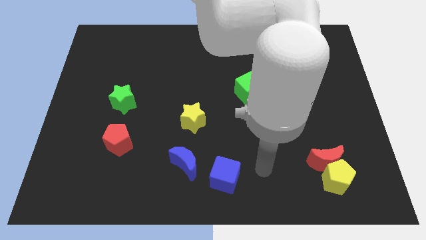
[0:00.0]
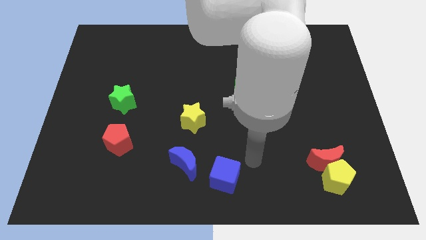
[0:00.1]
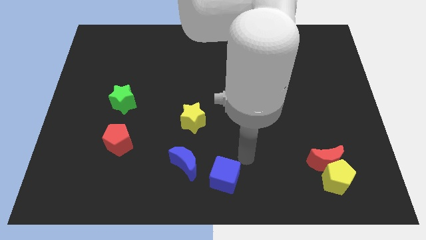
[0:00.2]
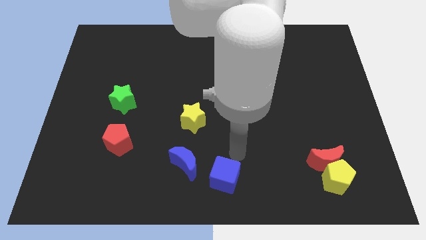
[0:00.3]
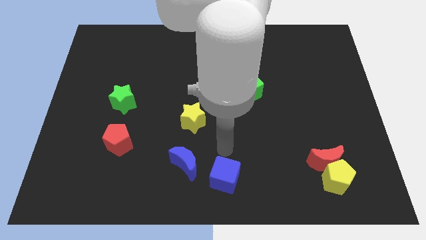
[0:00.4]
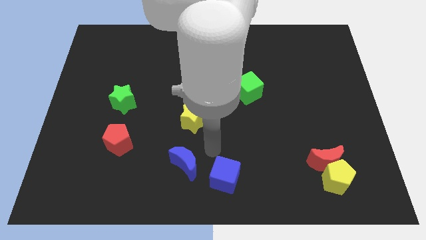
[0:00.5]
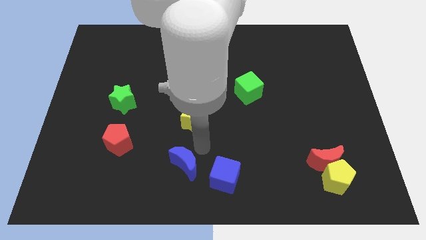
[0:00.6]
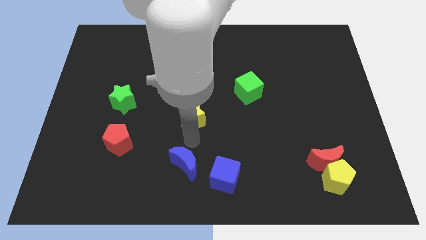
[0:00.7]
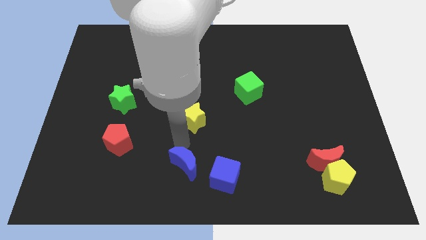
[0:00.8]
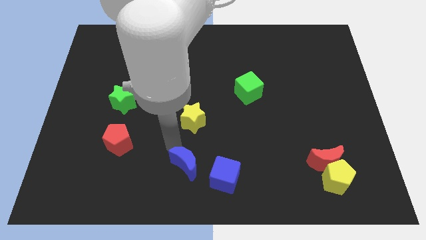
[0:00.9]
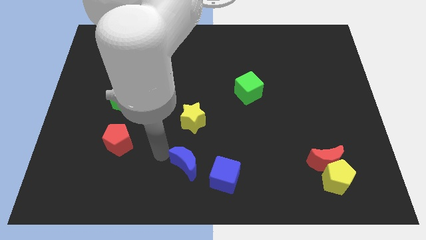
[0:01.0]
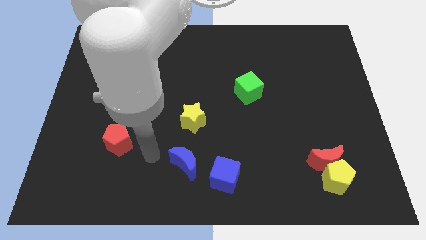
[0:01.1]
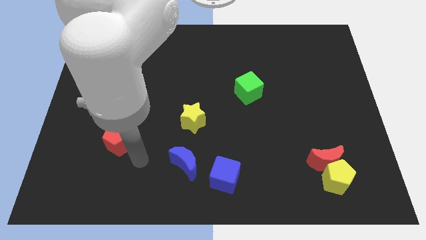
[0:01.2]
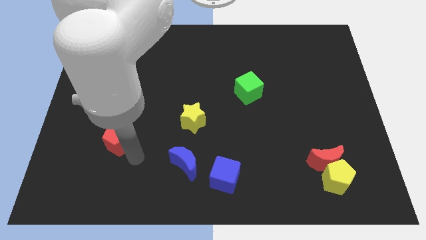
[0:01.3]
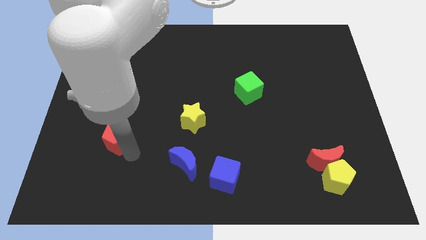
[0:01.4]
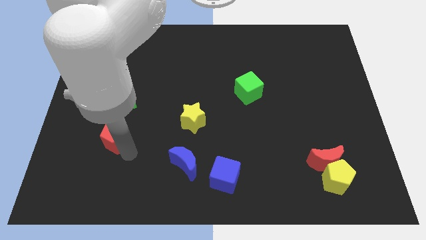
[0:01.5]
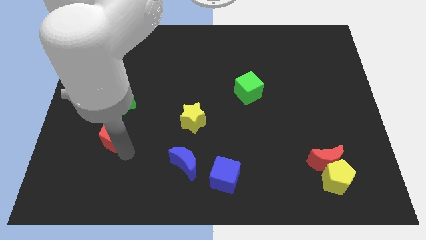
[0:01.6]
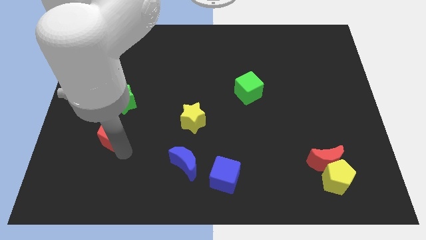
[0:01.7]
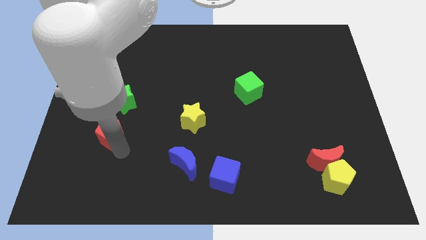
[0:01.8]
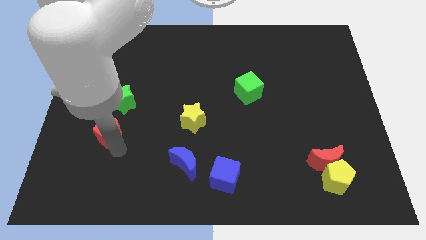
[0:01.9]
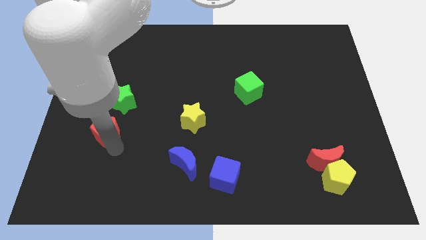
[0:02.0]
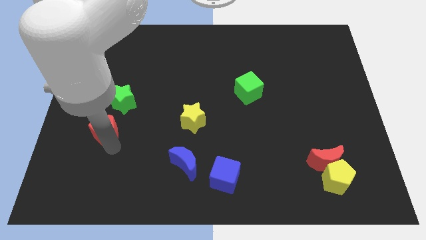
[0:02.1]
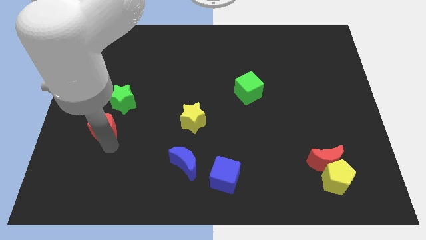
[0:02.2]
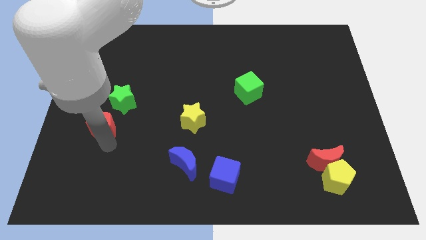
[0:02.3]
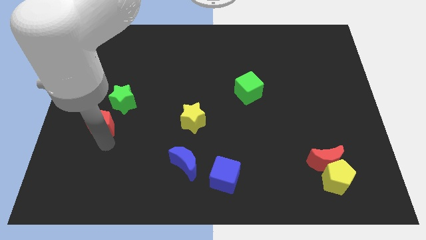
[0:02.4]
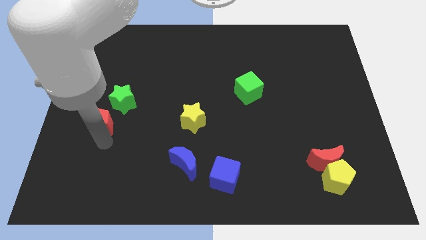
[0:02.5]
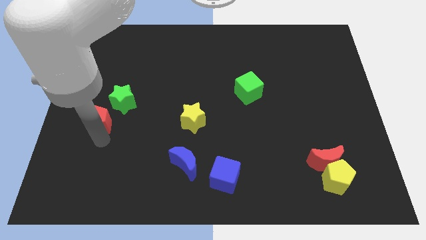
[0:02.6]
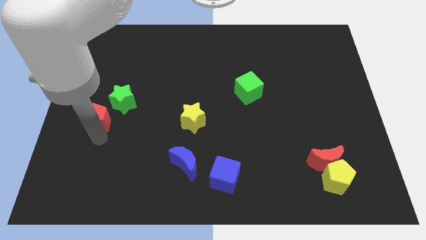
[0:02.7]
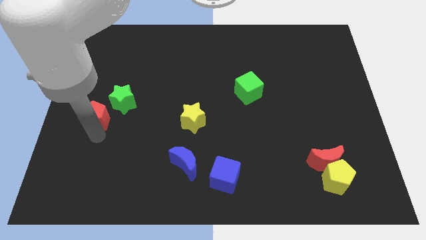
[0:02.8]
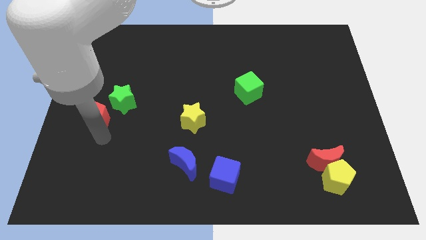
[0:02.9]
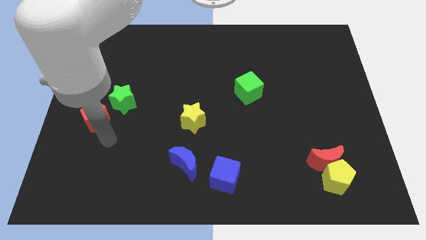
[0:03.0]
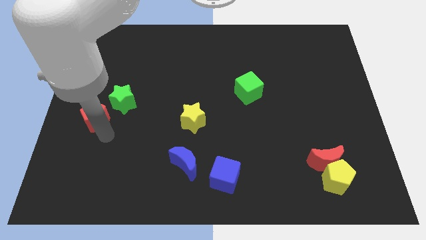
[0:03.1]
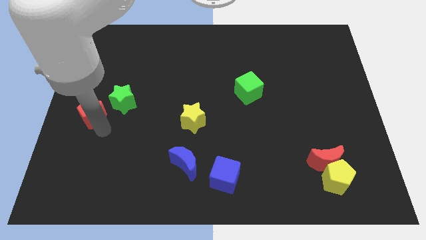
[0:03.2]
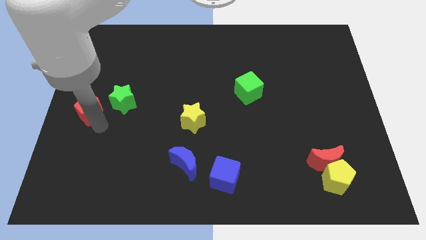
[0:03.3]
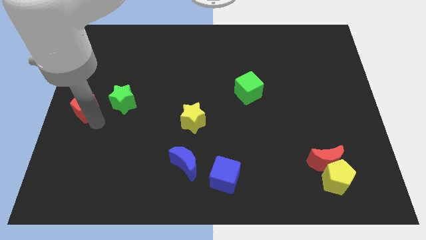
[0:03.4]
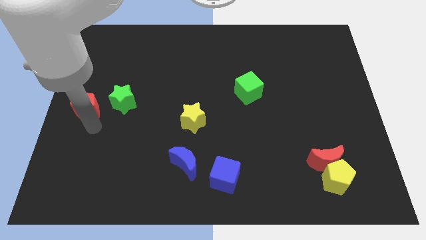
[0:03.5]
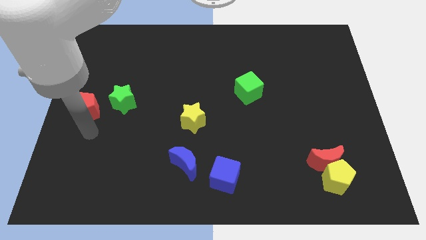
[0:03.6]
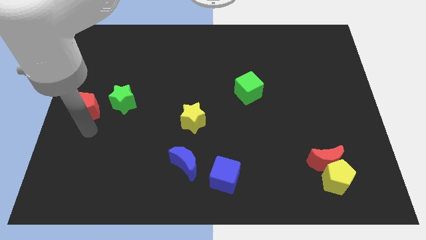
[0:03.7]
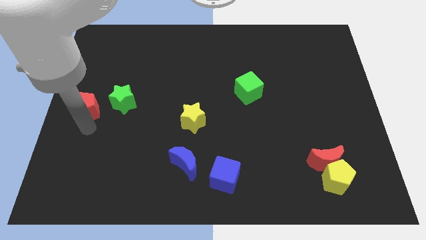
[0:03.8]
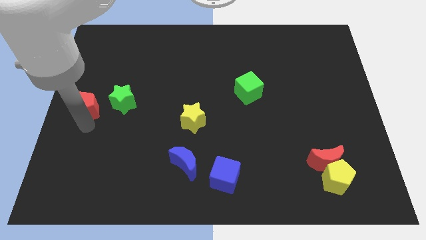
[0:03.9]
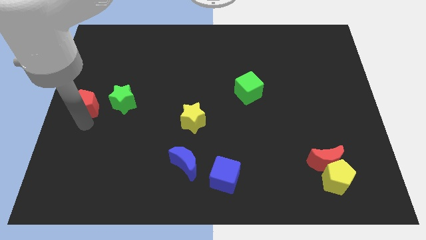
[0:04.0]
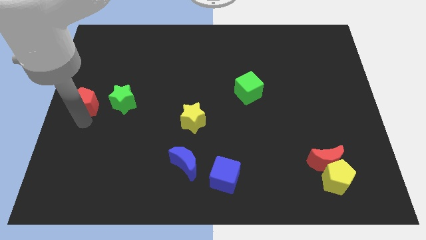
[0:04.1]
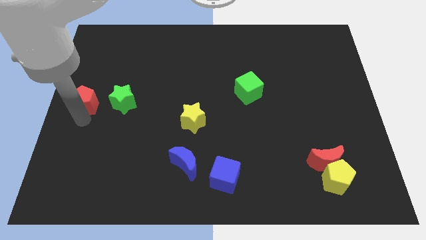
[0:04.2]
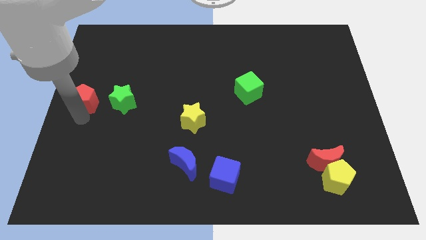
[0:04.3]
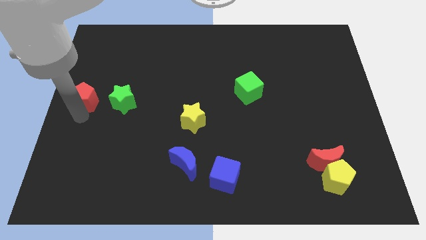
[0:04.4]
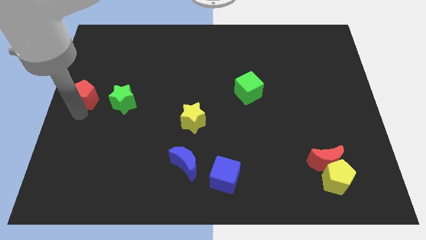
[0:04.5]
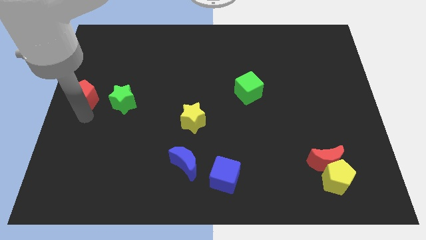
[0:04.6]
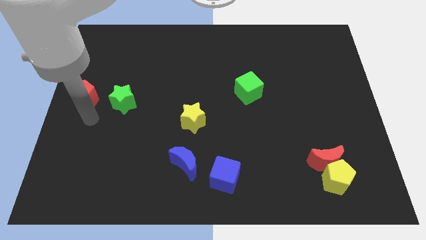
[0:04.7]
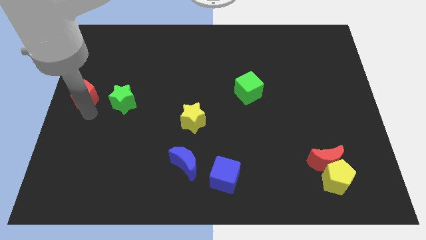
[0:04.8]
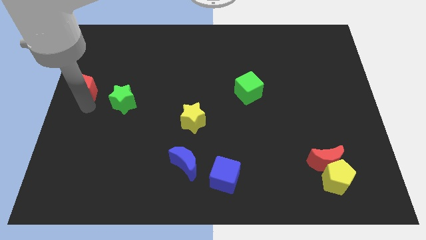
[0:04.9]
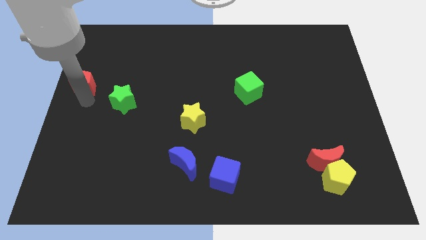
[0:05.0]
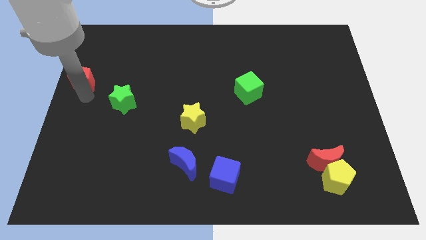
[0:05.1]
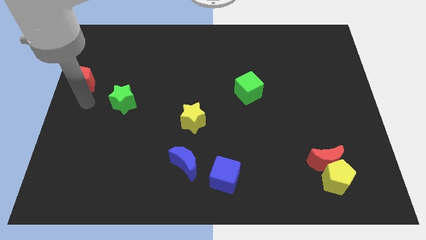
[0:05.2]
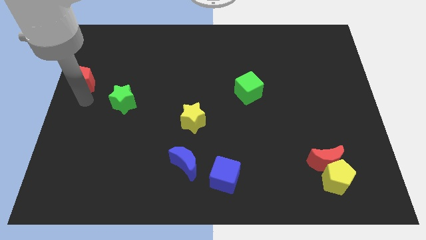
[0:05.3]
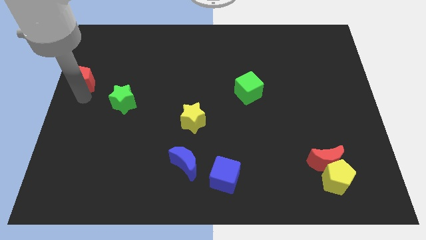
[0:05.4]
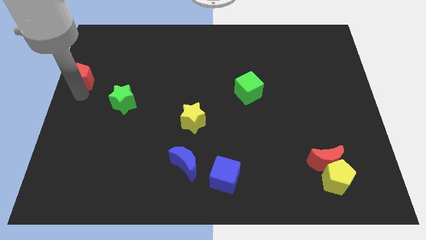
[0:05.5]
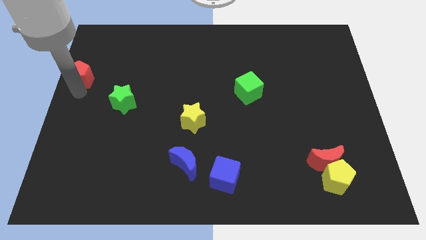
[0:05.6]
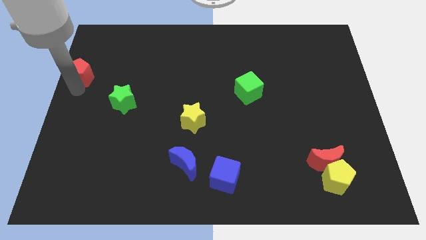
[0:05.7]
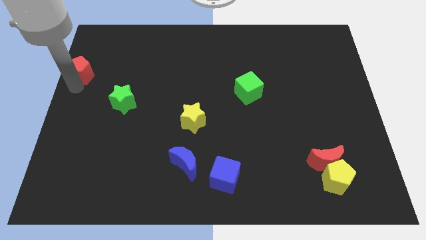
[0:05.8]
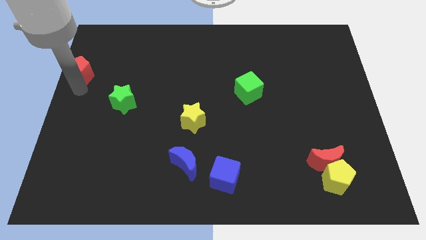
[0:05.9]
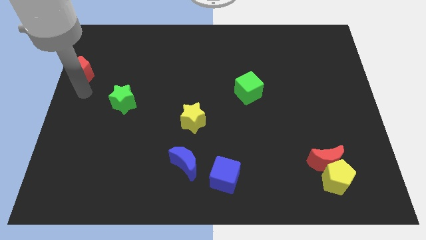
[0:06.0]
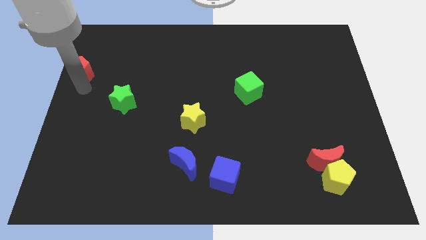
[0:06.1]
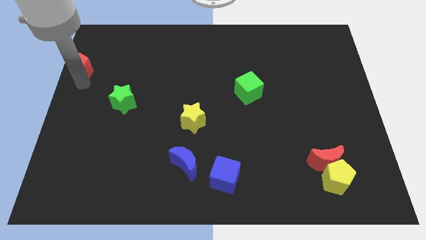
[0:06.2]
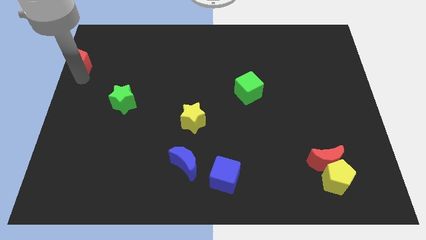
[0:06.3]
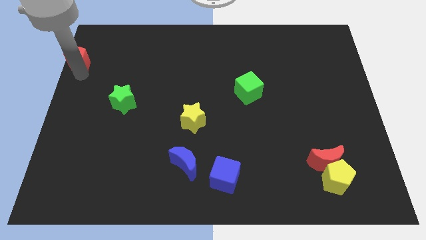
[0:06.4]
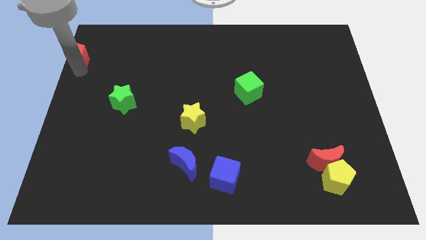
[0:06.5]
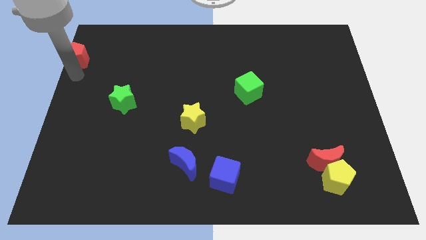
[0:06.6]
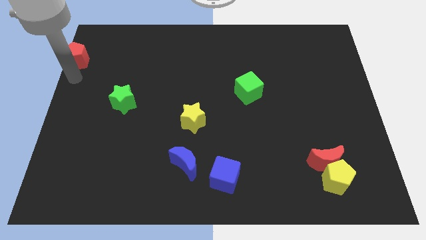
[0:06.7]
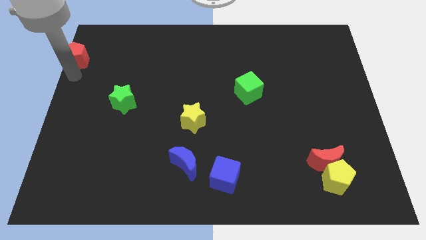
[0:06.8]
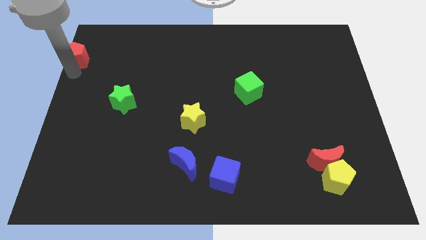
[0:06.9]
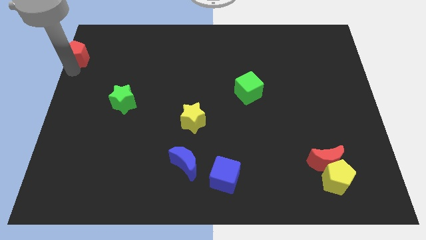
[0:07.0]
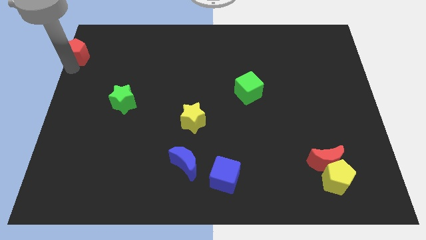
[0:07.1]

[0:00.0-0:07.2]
push the red pentagon to the top left corner

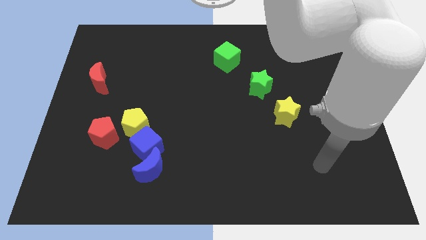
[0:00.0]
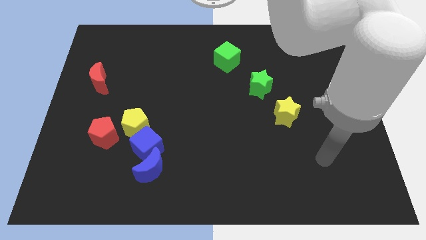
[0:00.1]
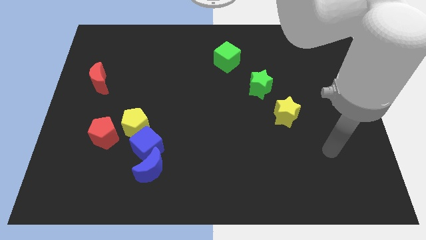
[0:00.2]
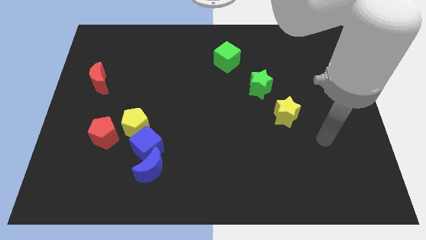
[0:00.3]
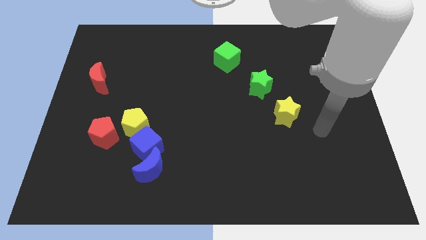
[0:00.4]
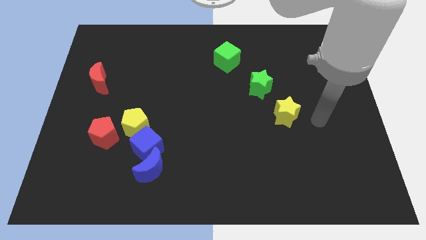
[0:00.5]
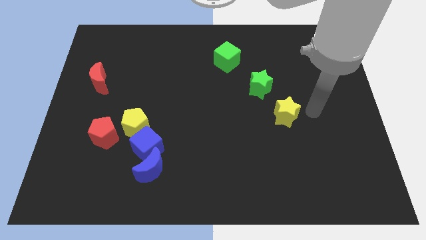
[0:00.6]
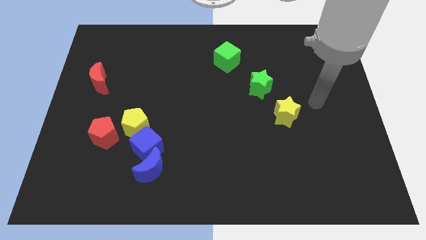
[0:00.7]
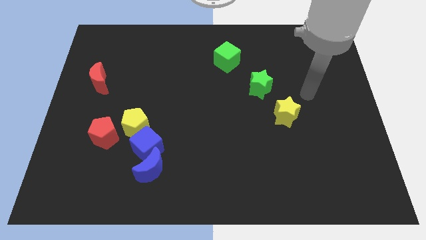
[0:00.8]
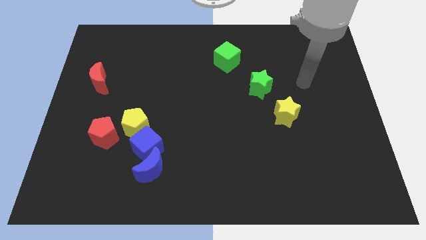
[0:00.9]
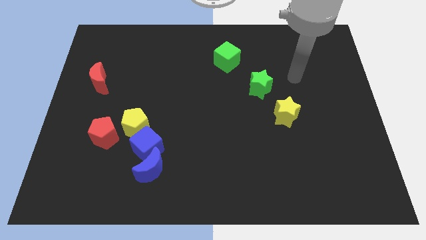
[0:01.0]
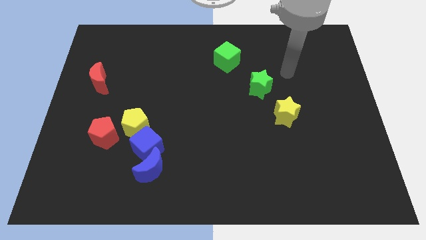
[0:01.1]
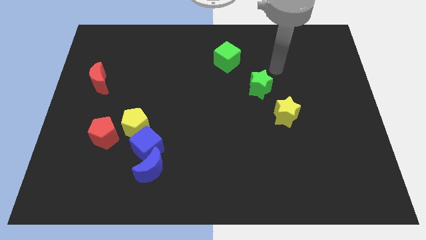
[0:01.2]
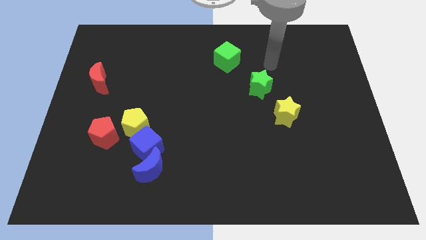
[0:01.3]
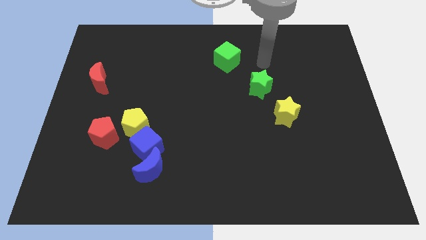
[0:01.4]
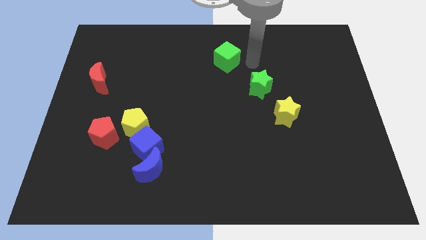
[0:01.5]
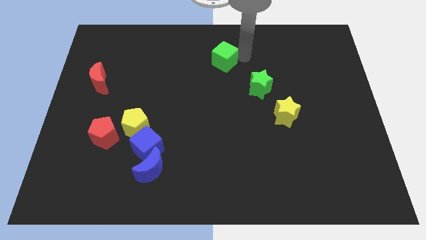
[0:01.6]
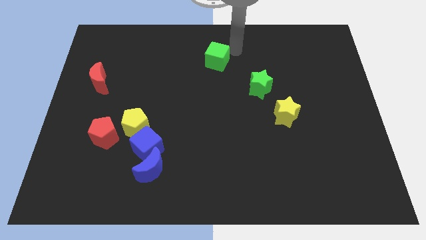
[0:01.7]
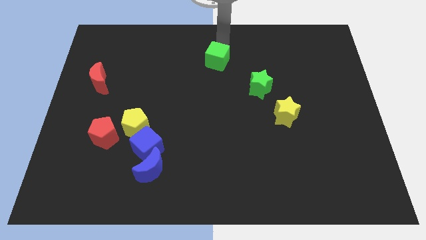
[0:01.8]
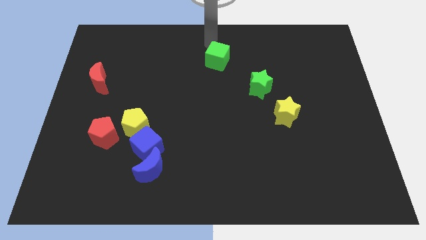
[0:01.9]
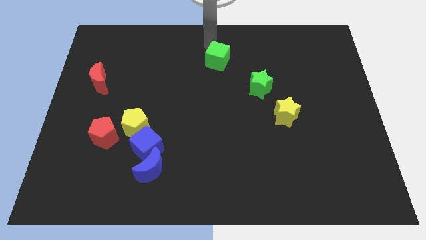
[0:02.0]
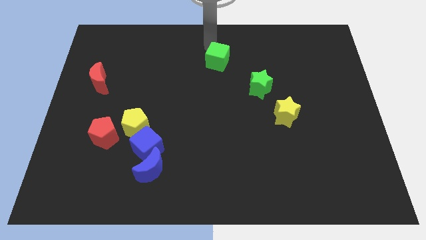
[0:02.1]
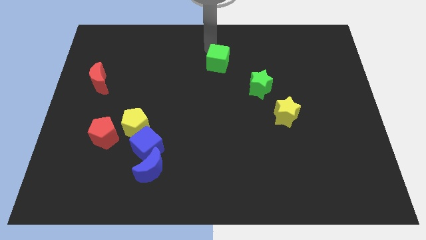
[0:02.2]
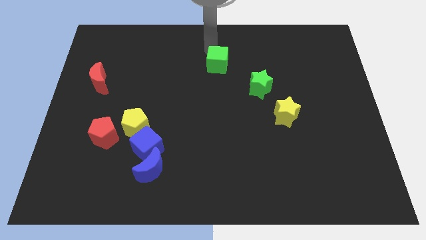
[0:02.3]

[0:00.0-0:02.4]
put the green cube to the center of the board
